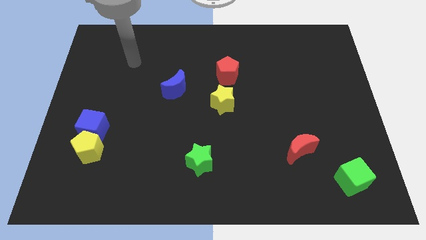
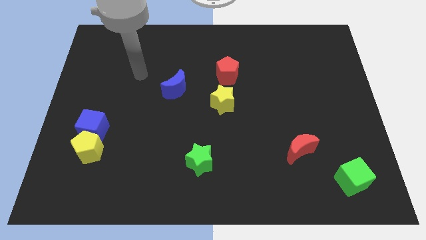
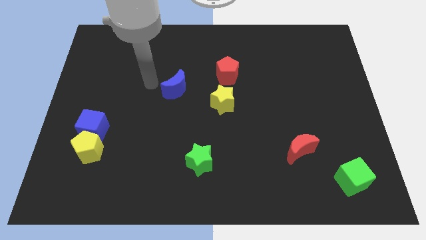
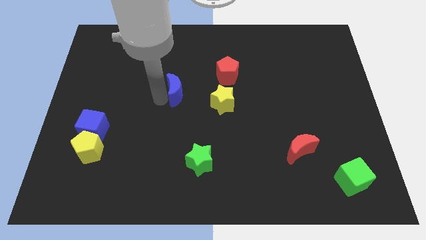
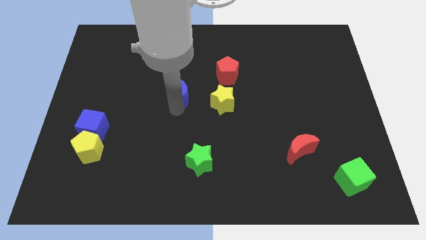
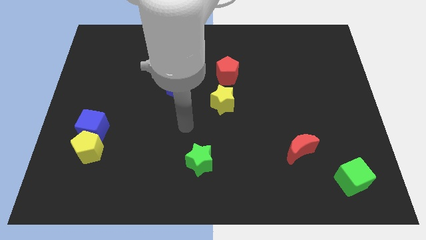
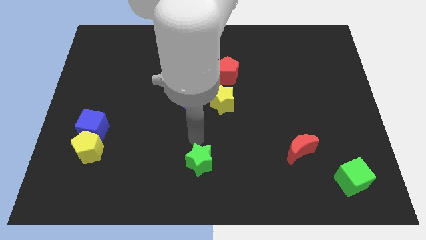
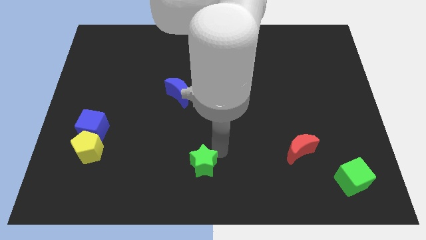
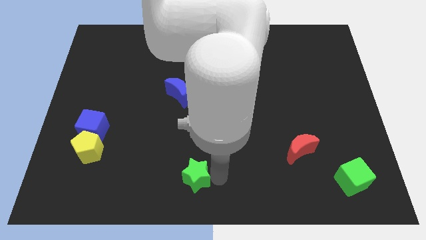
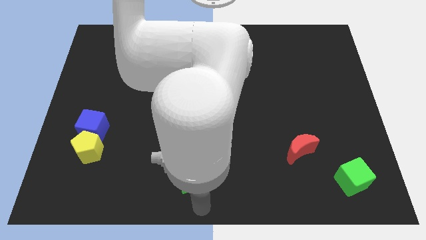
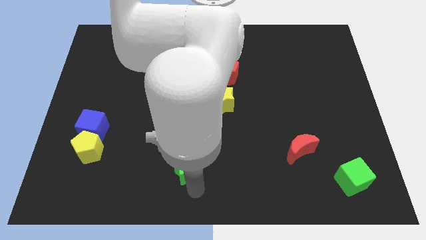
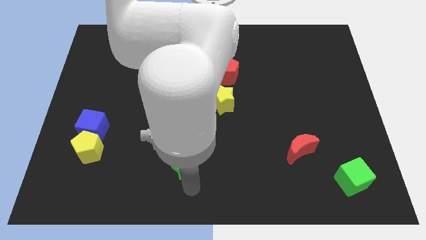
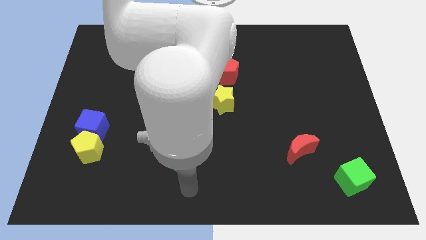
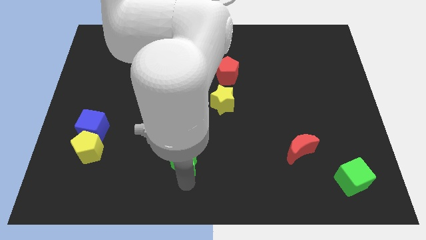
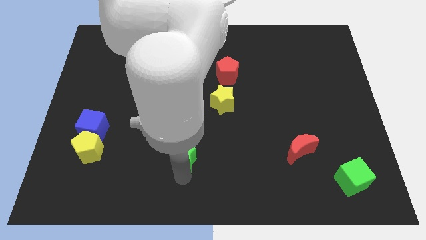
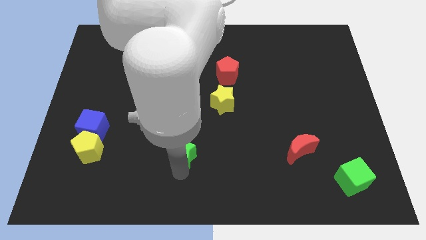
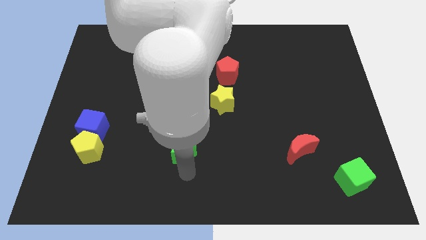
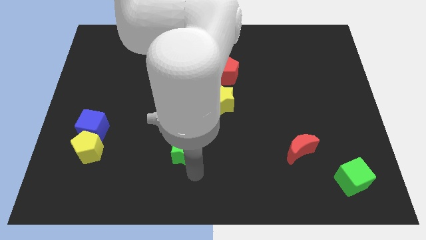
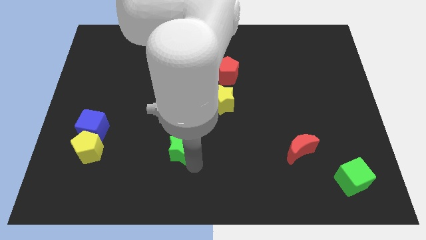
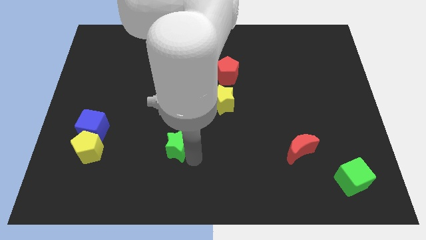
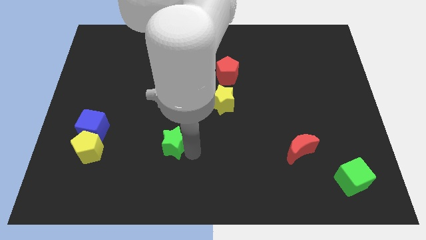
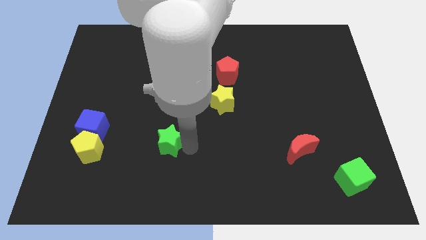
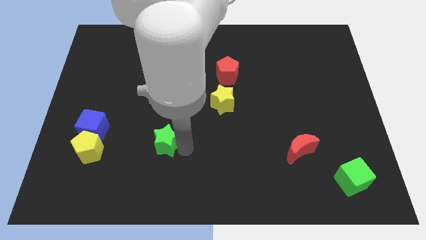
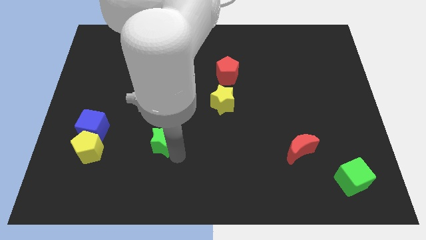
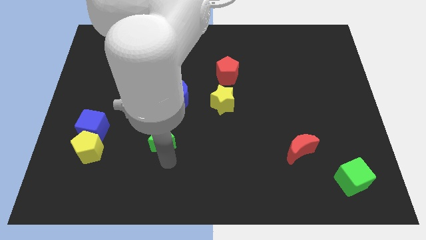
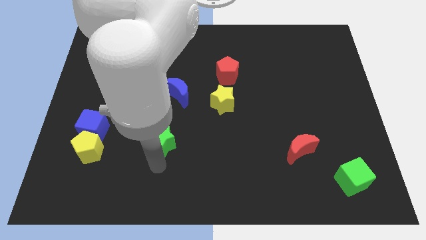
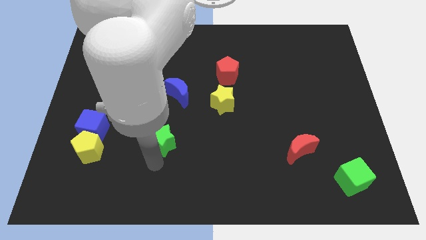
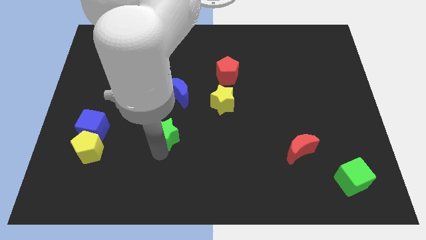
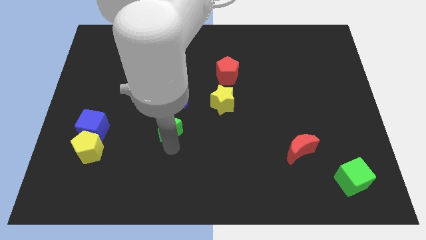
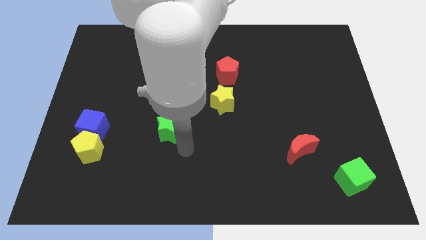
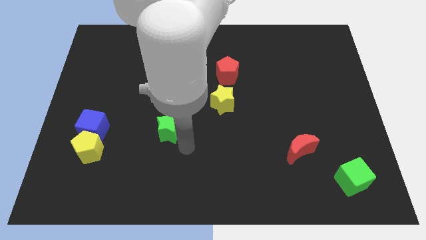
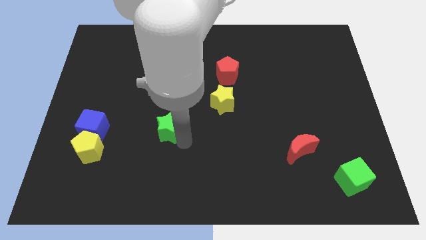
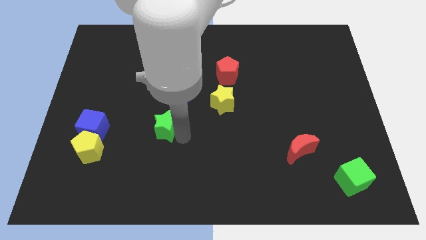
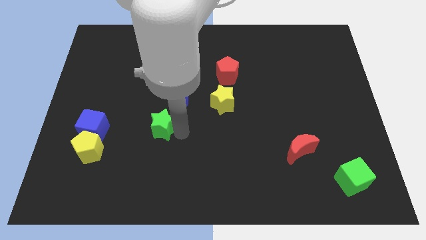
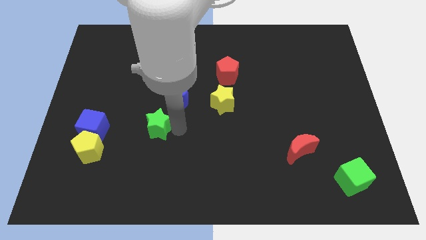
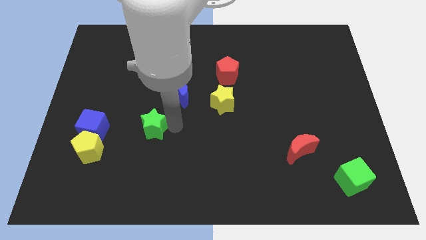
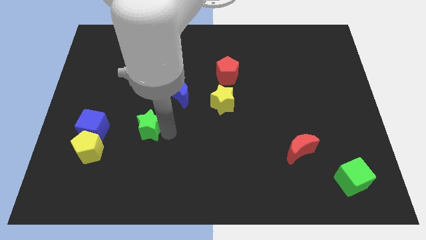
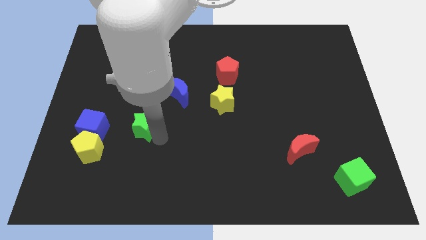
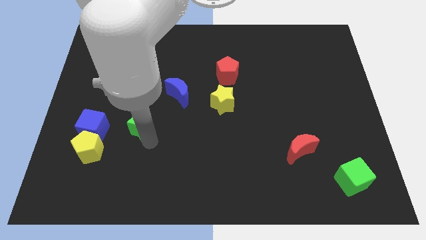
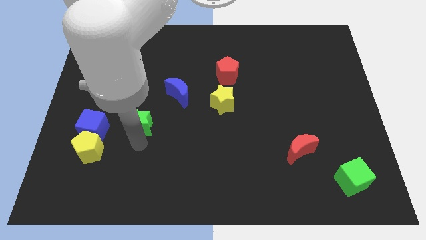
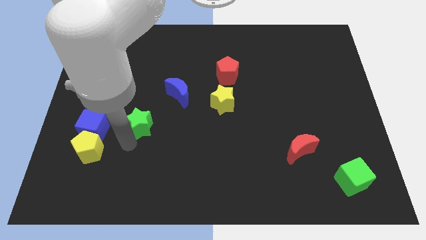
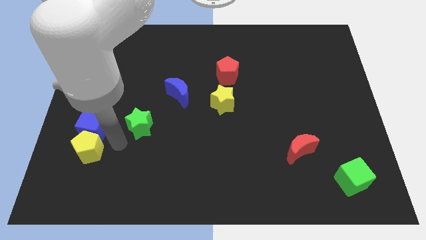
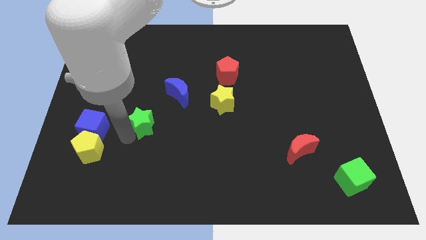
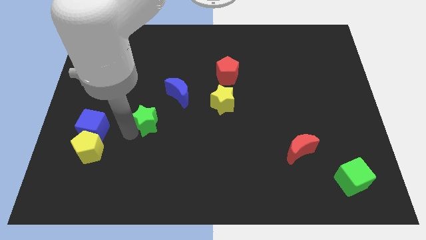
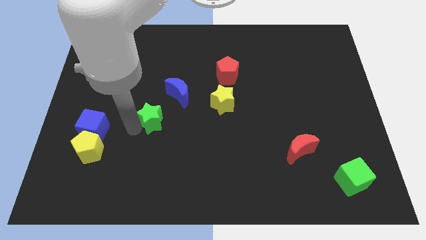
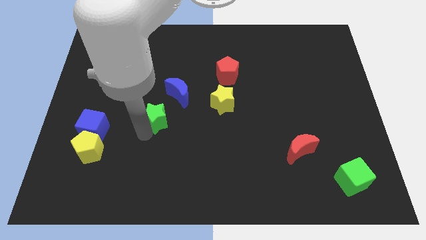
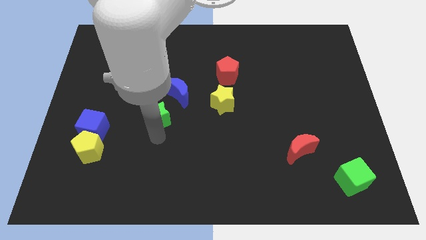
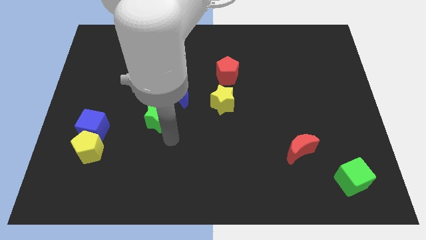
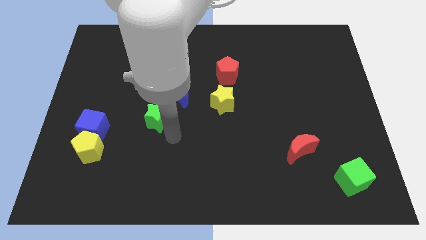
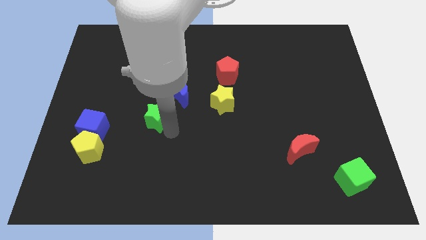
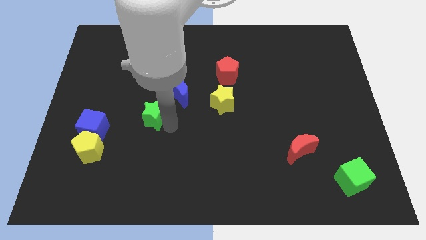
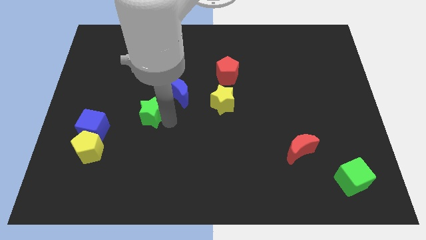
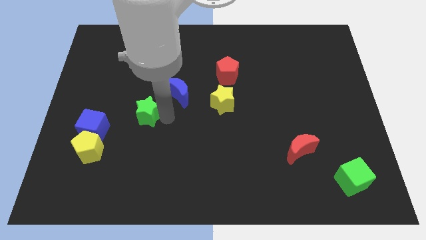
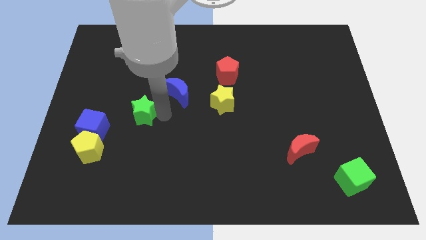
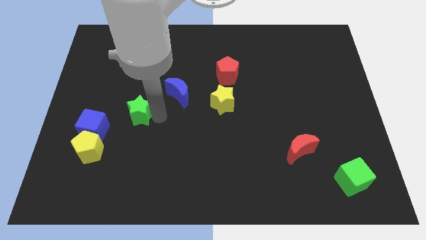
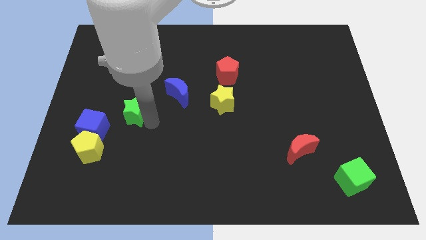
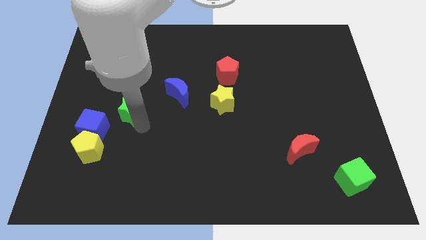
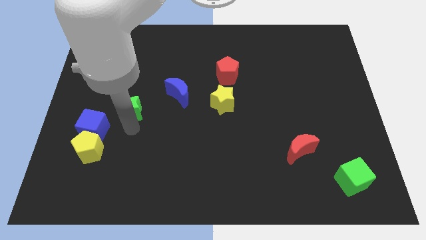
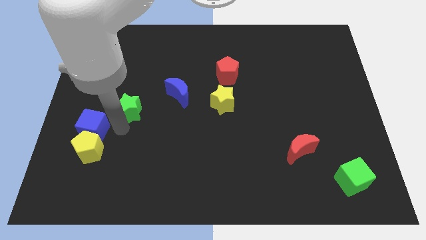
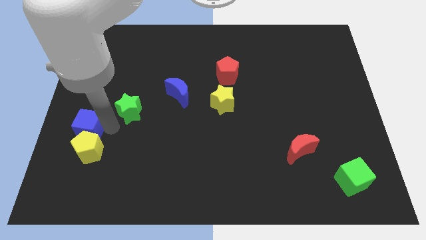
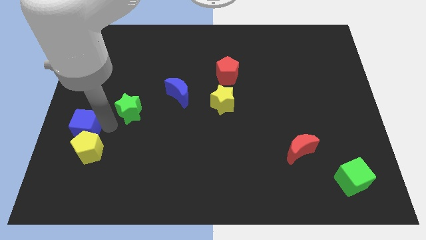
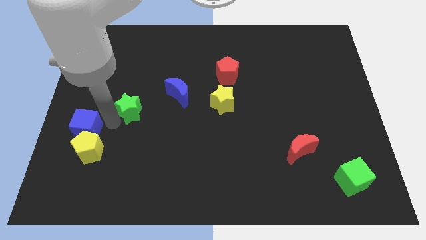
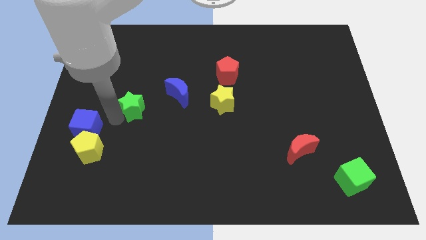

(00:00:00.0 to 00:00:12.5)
slide the green star to the left of the blue moon
